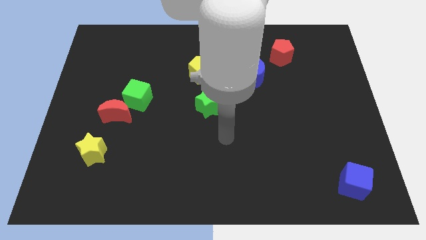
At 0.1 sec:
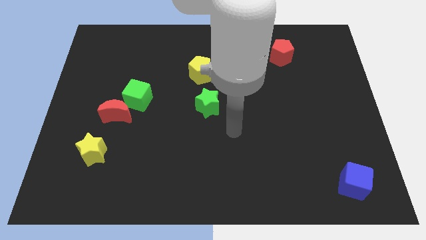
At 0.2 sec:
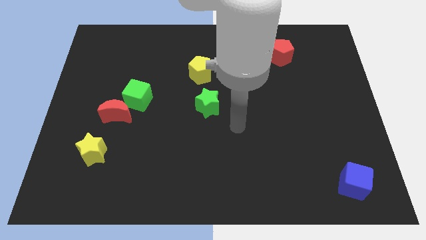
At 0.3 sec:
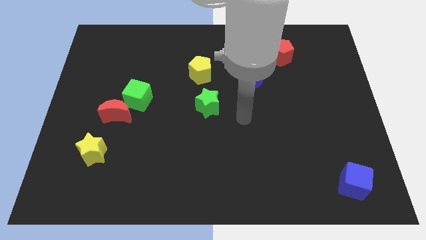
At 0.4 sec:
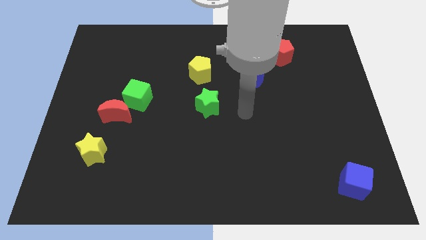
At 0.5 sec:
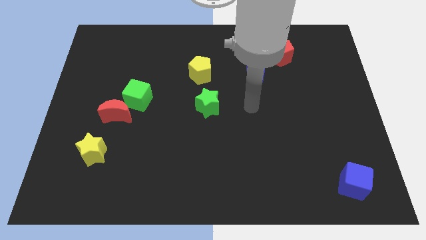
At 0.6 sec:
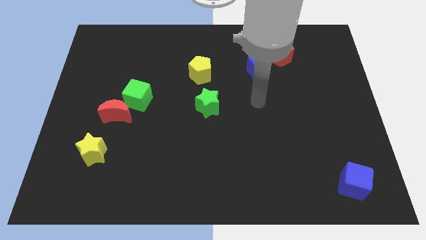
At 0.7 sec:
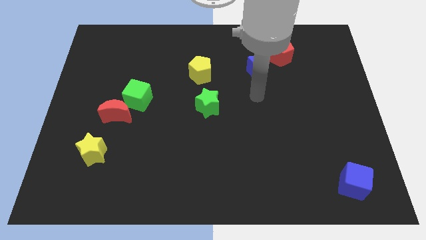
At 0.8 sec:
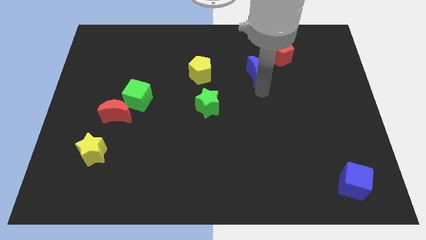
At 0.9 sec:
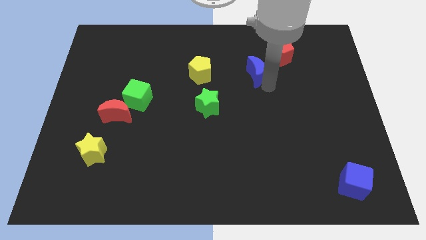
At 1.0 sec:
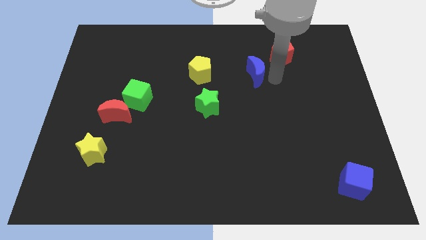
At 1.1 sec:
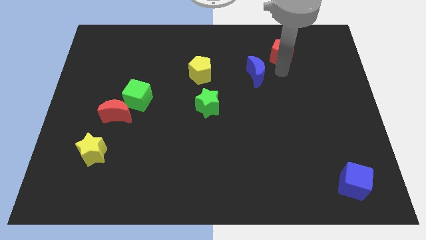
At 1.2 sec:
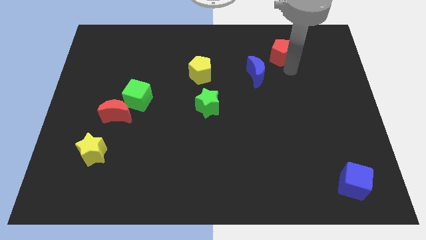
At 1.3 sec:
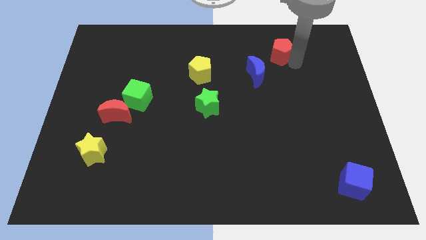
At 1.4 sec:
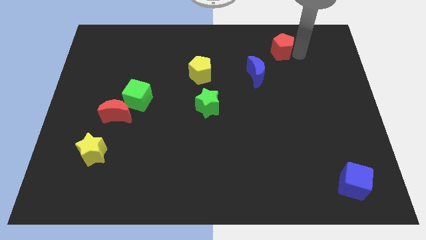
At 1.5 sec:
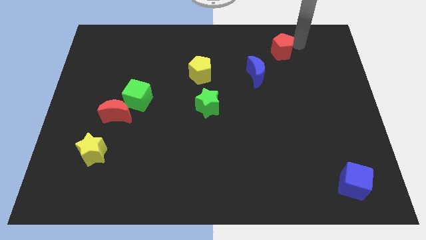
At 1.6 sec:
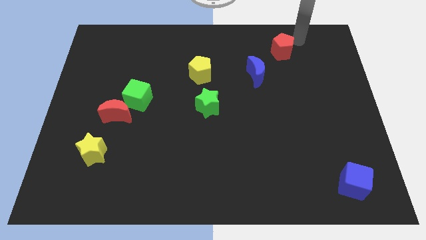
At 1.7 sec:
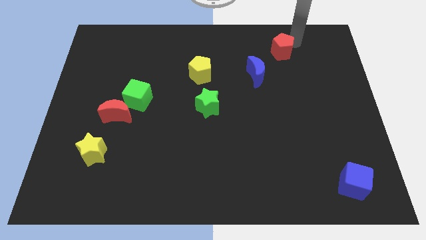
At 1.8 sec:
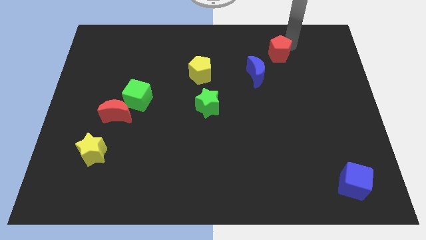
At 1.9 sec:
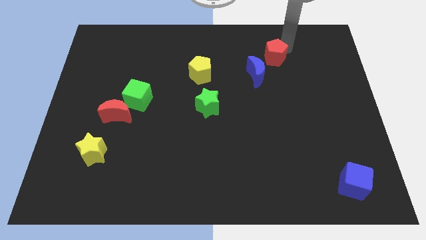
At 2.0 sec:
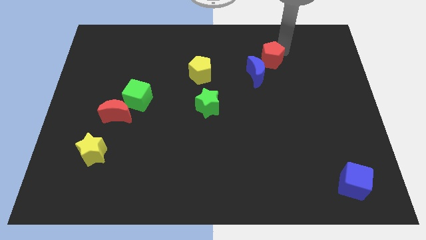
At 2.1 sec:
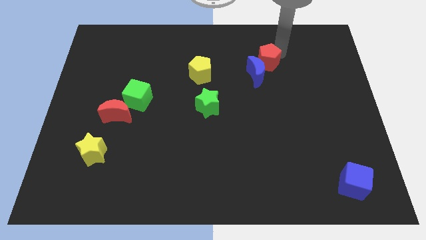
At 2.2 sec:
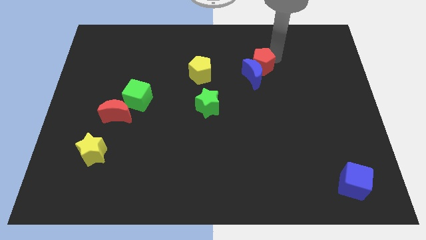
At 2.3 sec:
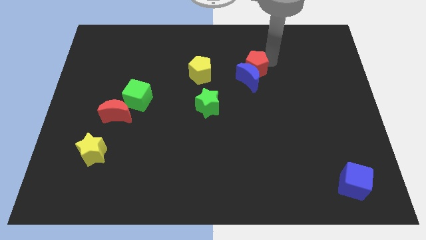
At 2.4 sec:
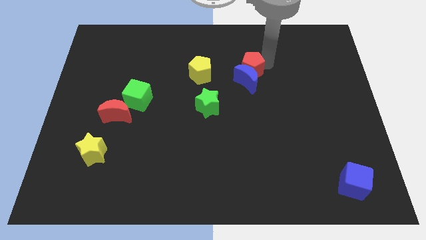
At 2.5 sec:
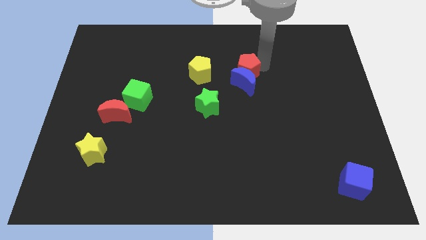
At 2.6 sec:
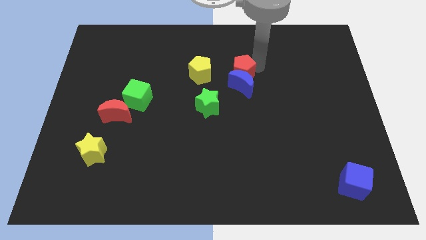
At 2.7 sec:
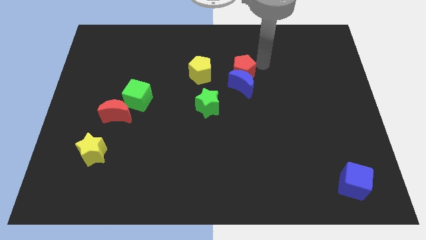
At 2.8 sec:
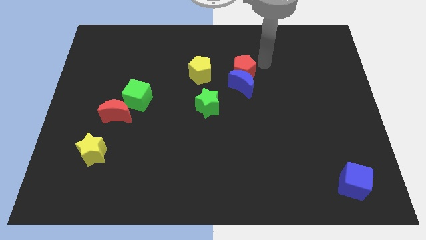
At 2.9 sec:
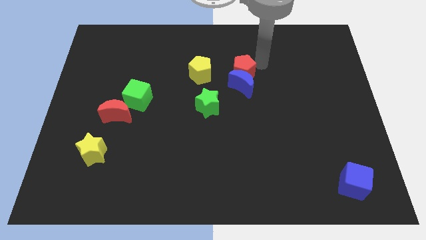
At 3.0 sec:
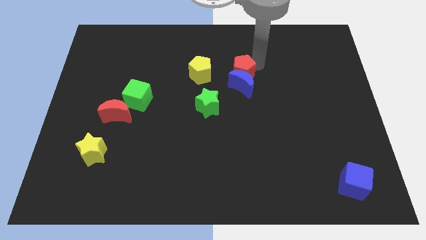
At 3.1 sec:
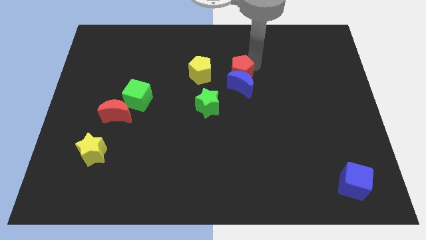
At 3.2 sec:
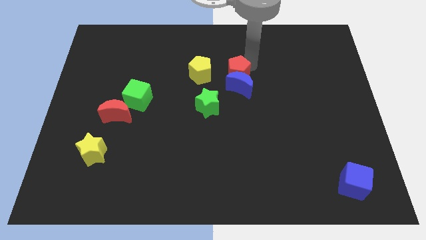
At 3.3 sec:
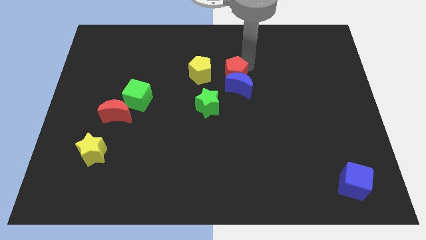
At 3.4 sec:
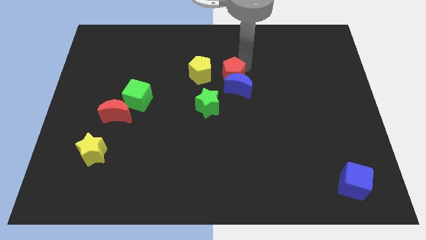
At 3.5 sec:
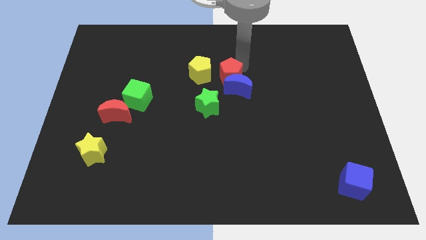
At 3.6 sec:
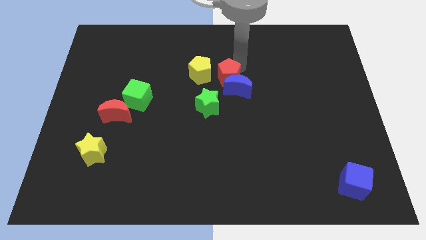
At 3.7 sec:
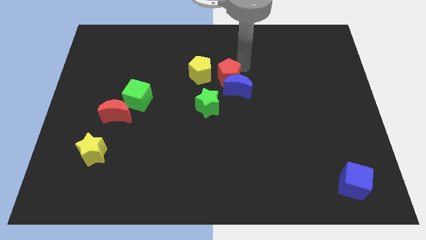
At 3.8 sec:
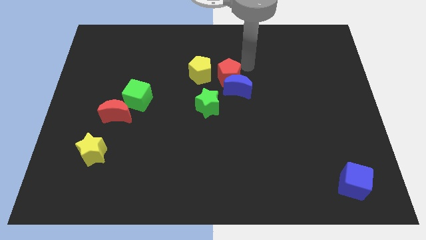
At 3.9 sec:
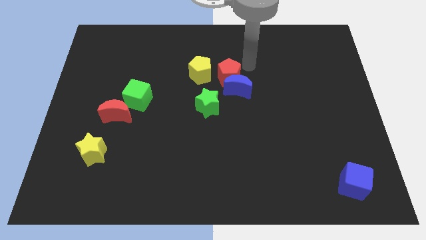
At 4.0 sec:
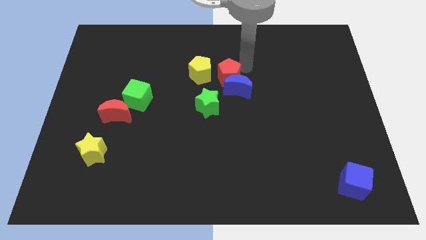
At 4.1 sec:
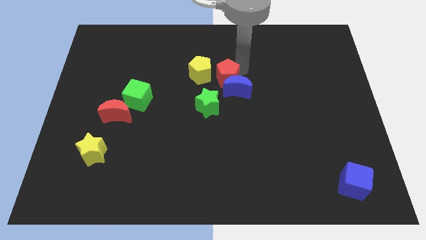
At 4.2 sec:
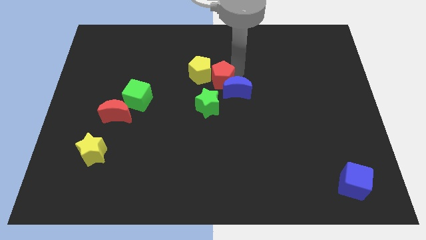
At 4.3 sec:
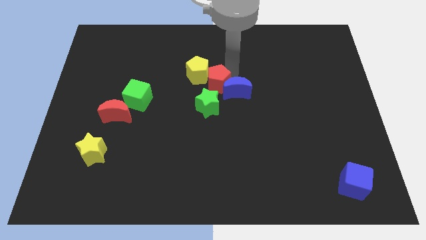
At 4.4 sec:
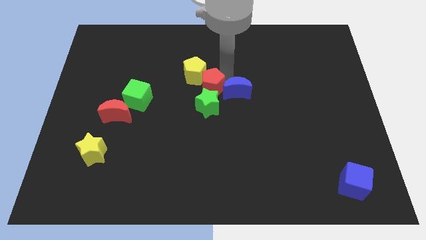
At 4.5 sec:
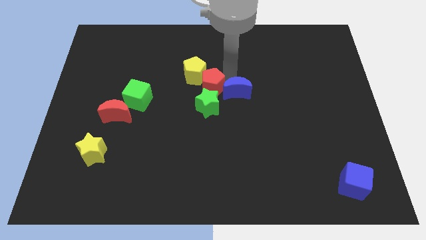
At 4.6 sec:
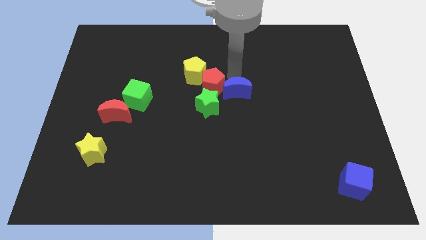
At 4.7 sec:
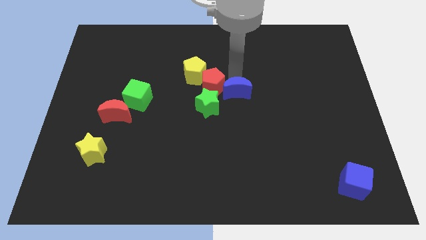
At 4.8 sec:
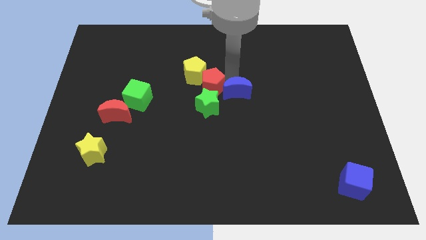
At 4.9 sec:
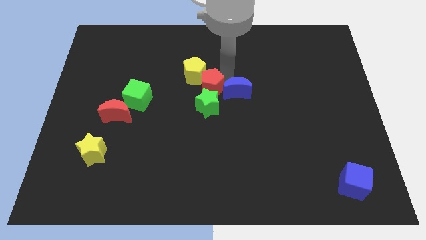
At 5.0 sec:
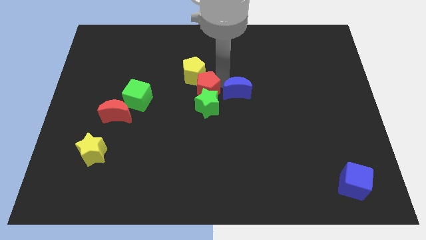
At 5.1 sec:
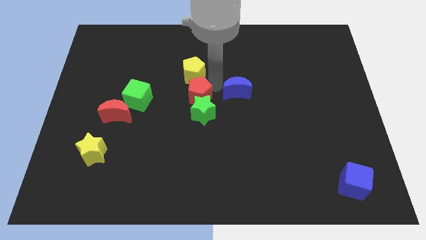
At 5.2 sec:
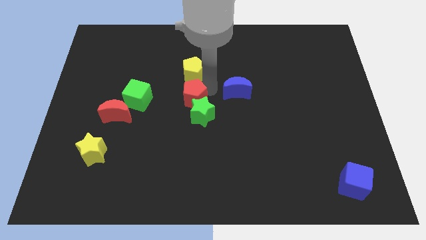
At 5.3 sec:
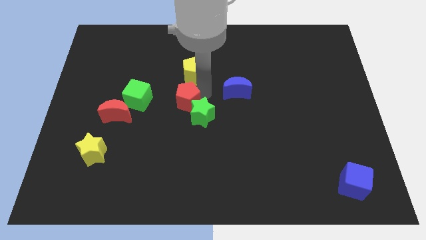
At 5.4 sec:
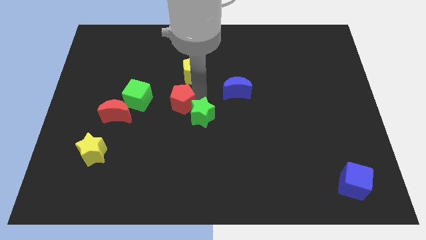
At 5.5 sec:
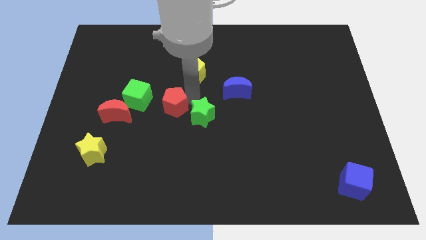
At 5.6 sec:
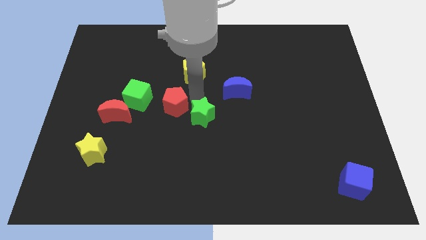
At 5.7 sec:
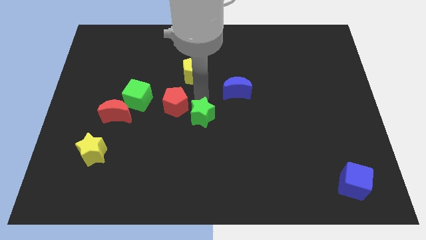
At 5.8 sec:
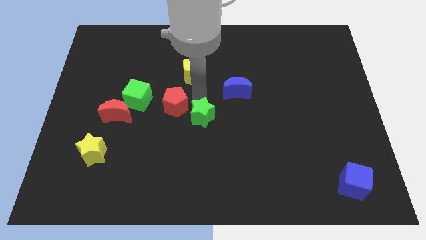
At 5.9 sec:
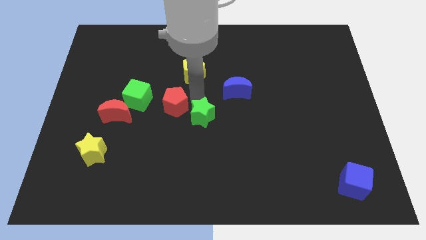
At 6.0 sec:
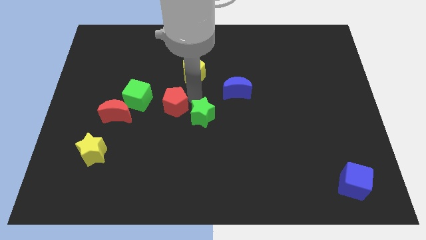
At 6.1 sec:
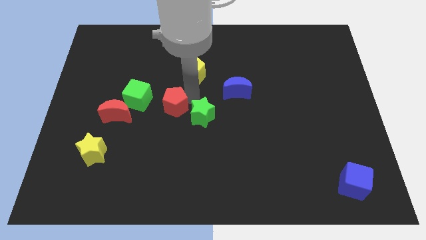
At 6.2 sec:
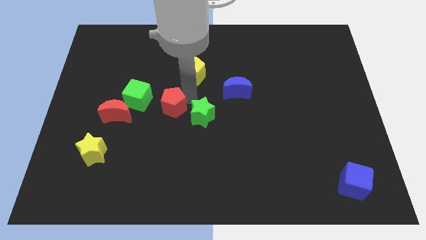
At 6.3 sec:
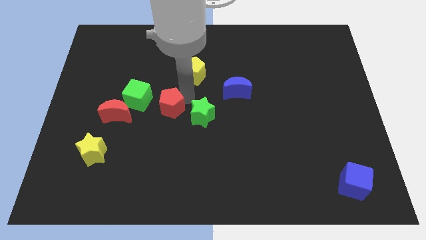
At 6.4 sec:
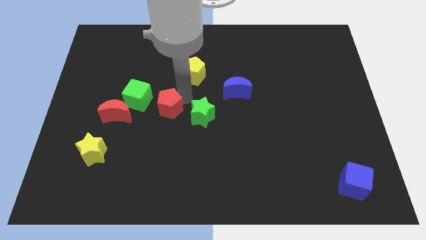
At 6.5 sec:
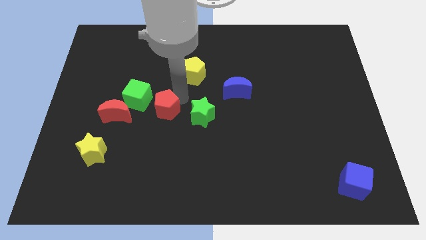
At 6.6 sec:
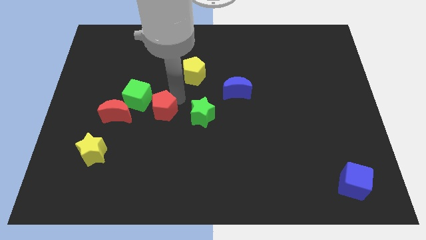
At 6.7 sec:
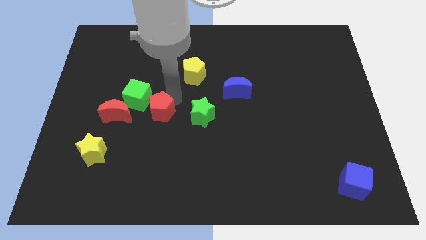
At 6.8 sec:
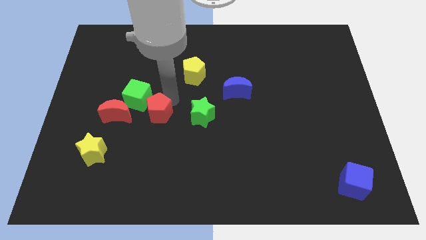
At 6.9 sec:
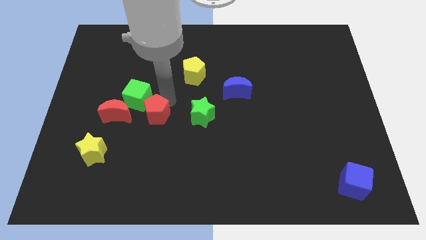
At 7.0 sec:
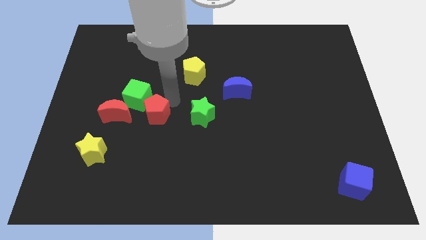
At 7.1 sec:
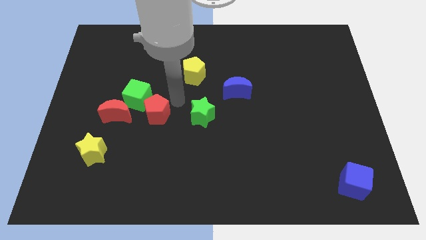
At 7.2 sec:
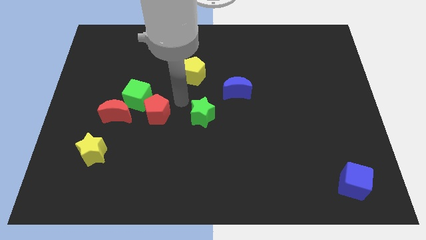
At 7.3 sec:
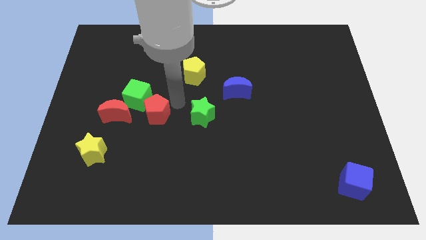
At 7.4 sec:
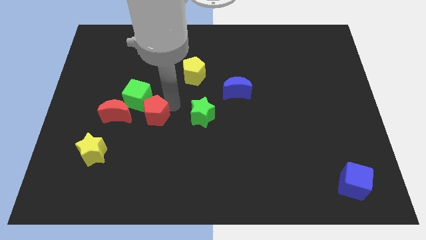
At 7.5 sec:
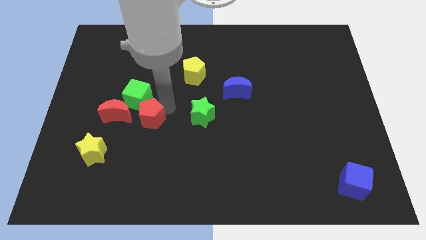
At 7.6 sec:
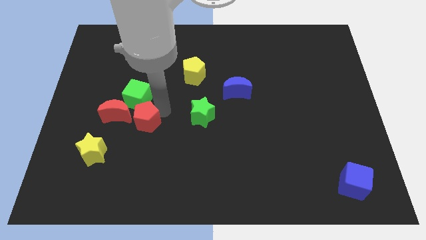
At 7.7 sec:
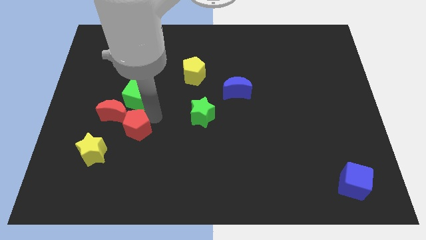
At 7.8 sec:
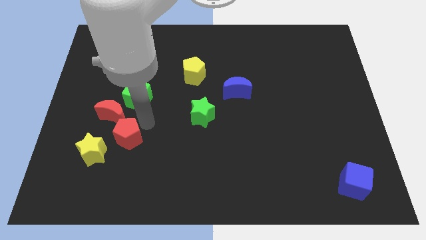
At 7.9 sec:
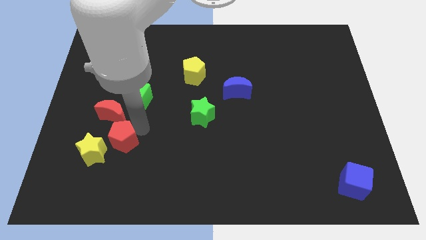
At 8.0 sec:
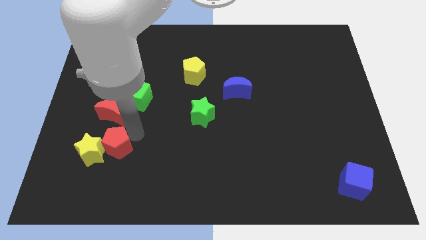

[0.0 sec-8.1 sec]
slide the red pentagon next to the yellow star

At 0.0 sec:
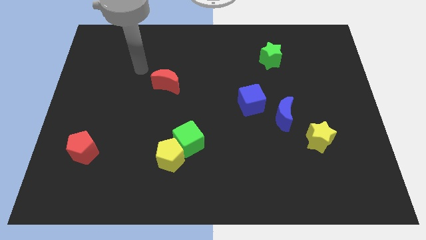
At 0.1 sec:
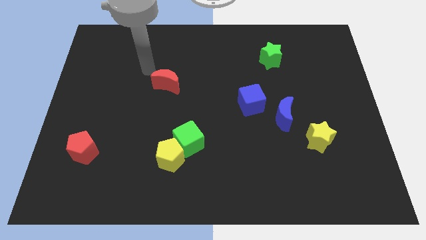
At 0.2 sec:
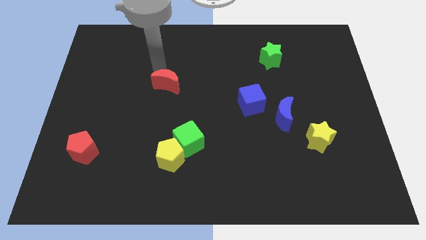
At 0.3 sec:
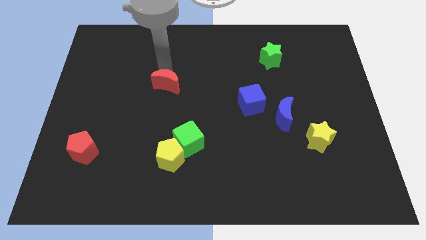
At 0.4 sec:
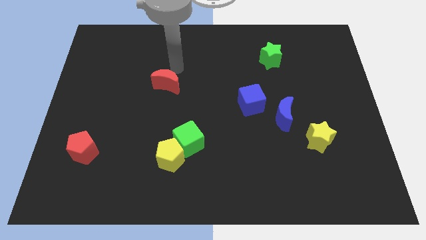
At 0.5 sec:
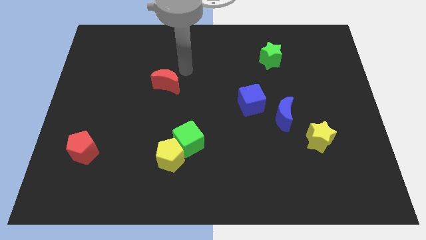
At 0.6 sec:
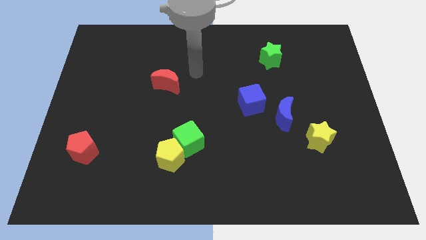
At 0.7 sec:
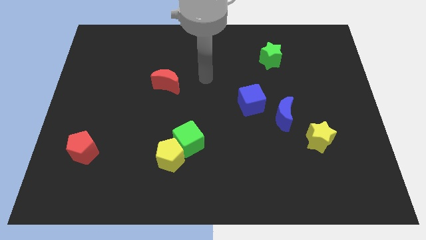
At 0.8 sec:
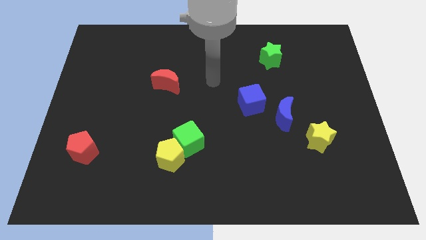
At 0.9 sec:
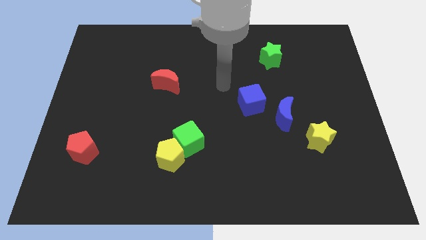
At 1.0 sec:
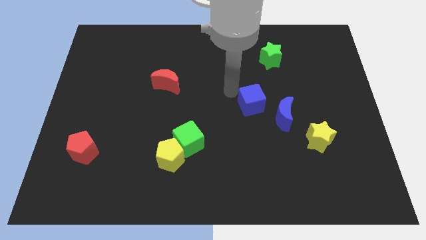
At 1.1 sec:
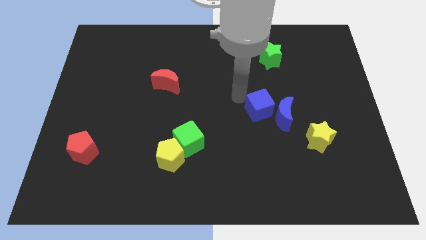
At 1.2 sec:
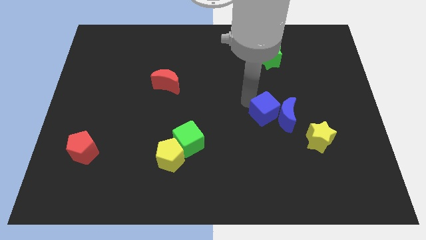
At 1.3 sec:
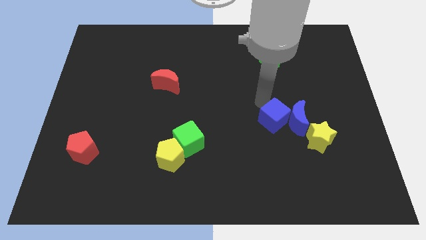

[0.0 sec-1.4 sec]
push the blue moon next to the yellow star
